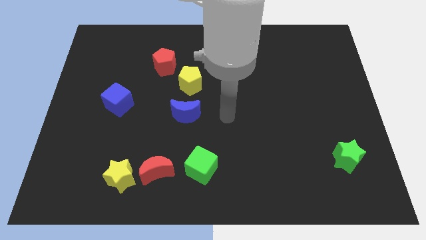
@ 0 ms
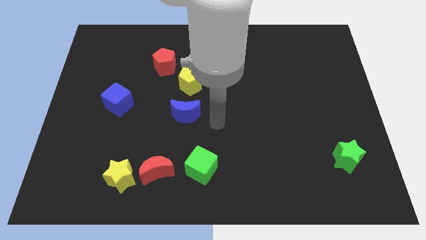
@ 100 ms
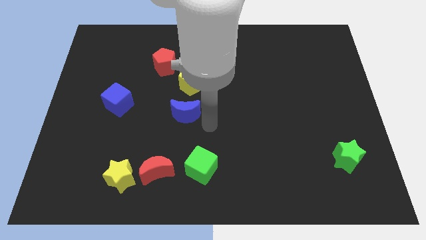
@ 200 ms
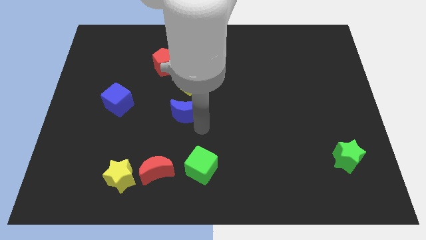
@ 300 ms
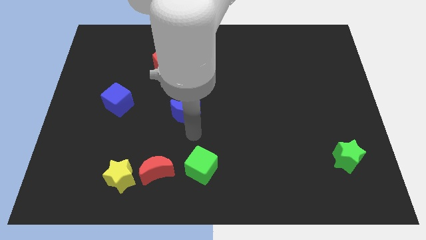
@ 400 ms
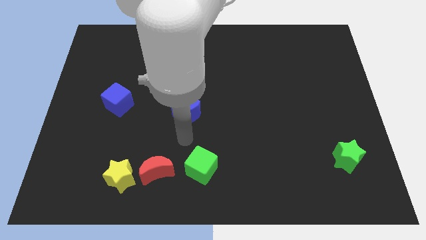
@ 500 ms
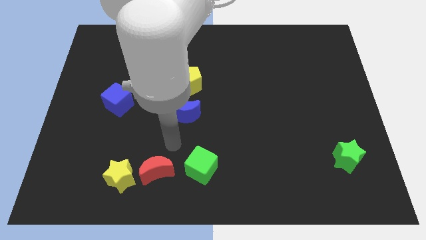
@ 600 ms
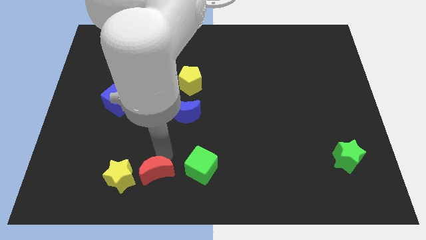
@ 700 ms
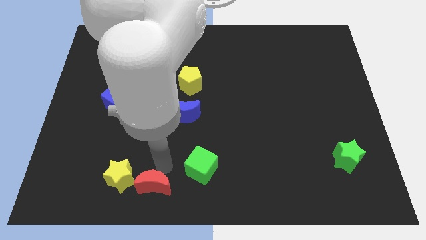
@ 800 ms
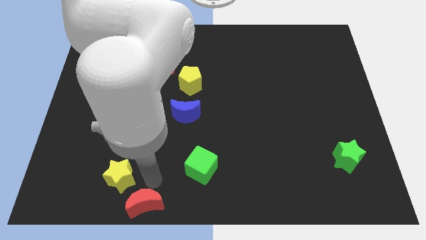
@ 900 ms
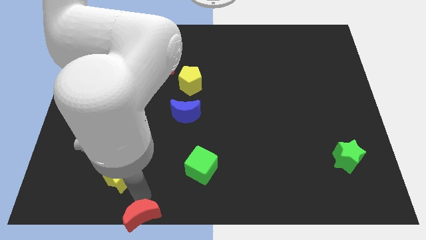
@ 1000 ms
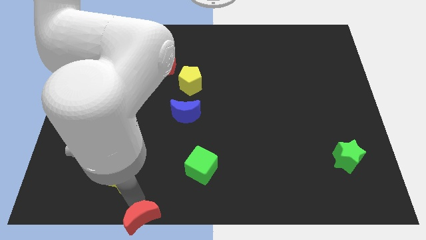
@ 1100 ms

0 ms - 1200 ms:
pull the yellow star apart from the red moon

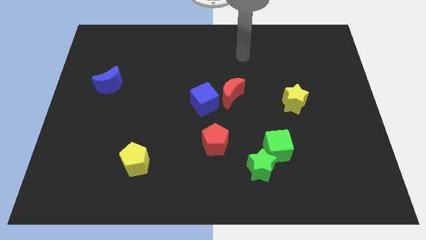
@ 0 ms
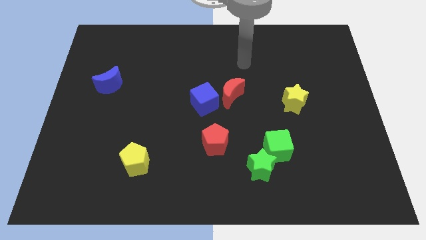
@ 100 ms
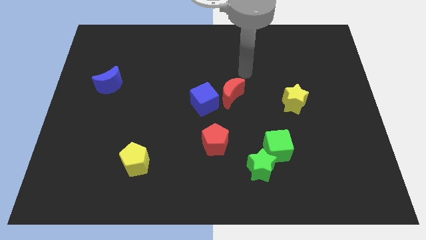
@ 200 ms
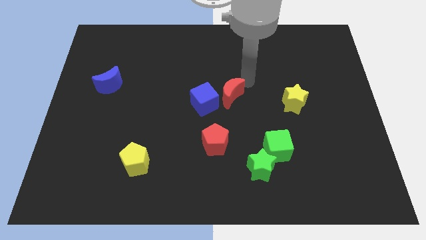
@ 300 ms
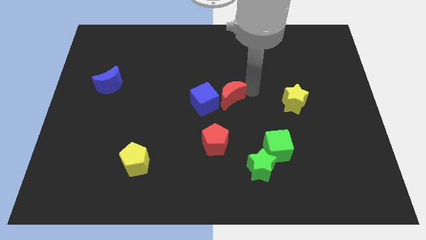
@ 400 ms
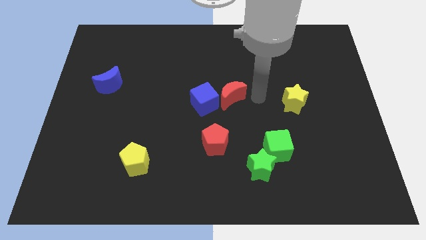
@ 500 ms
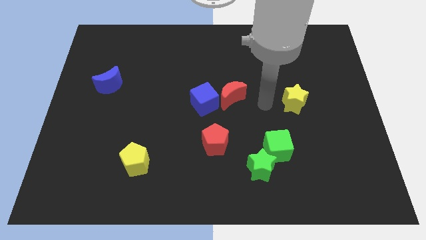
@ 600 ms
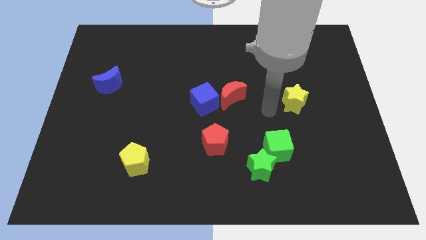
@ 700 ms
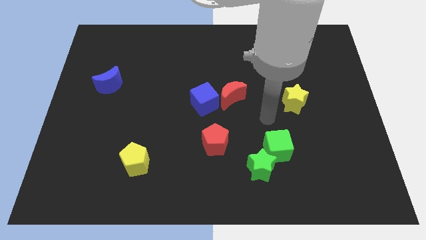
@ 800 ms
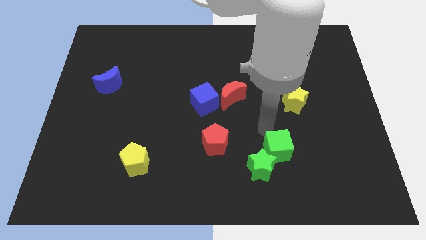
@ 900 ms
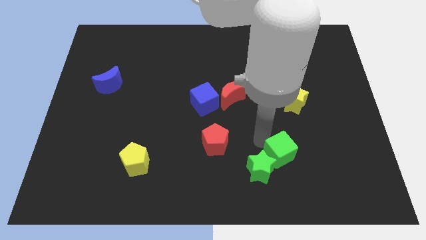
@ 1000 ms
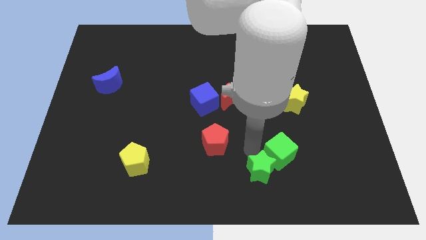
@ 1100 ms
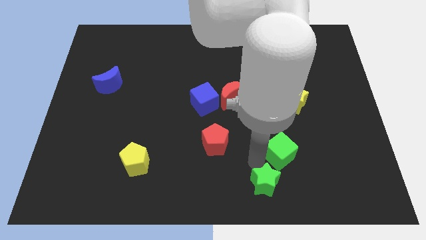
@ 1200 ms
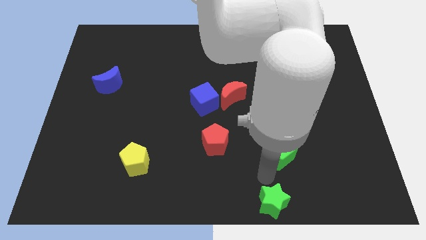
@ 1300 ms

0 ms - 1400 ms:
separate the green cube from the green star

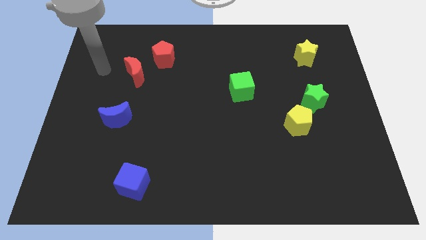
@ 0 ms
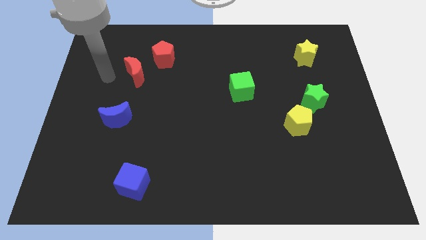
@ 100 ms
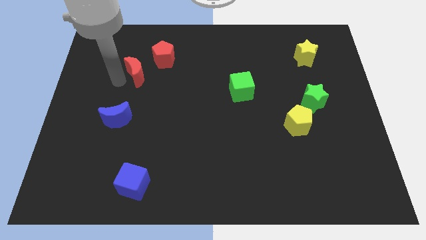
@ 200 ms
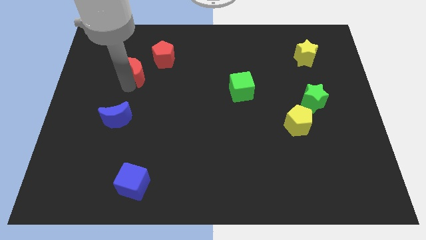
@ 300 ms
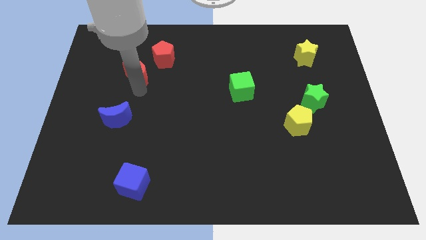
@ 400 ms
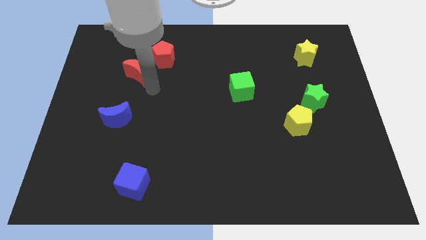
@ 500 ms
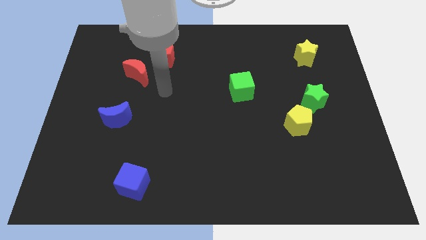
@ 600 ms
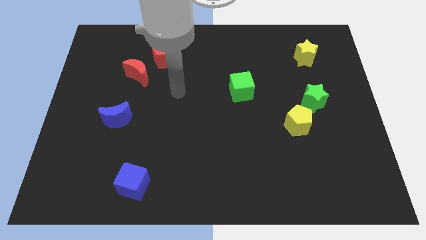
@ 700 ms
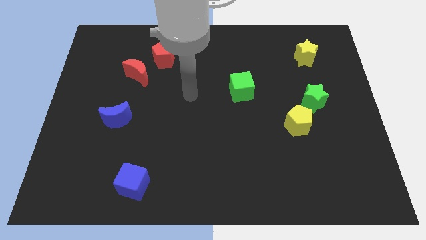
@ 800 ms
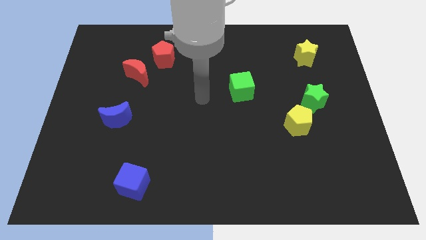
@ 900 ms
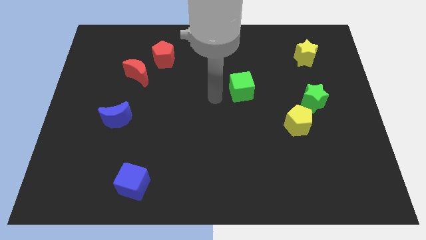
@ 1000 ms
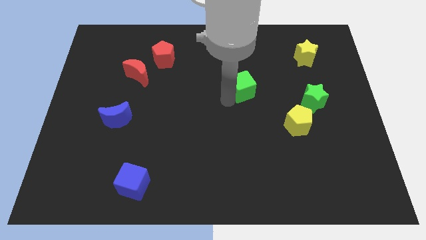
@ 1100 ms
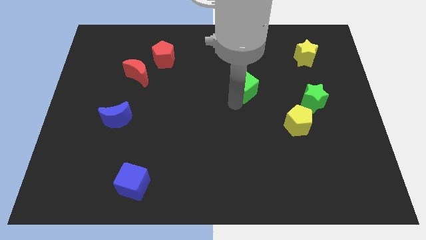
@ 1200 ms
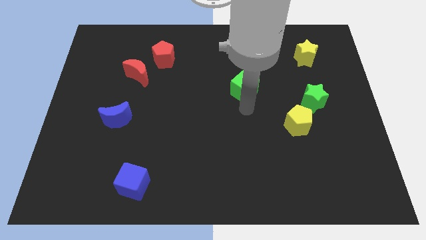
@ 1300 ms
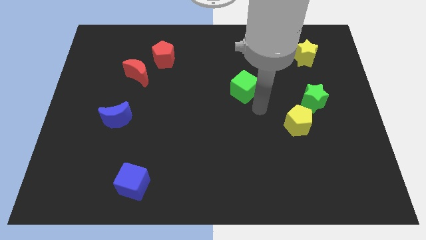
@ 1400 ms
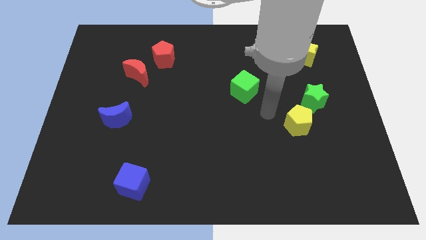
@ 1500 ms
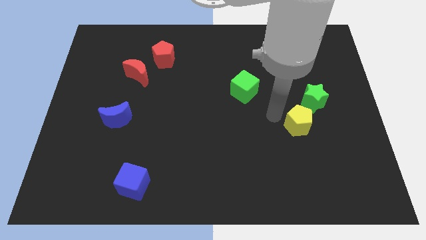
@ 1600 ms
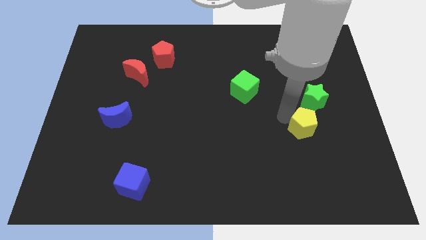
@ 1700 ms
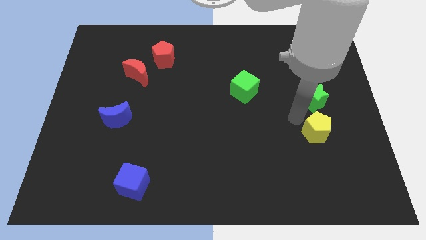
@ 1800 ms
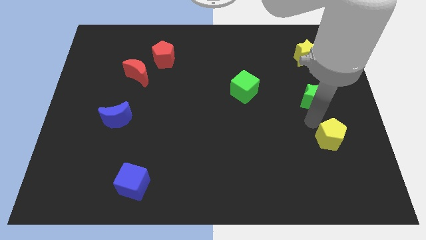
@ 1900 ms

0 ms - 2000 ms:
separate the green star from the yellow pentagon

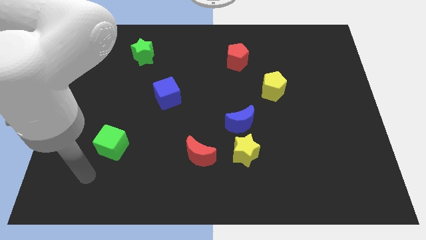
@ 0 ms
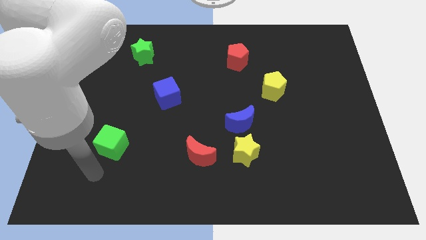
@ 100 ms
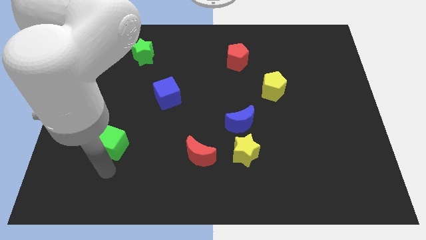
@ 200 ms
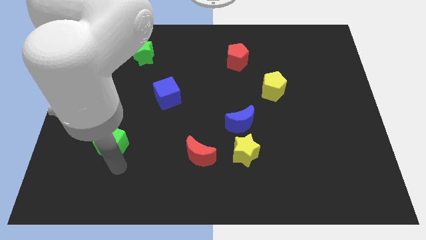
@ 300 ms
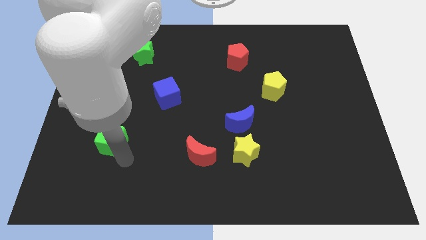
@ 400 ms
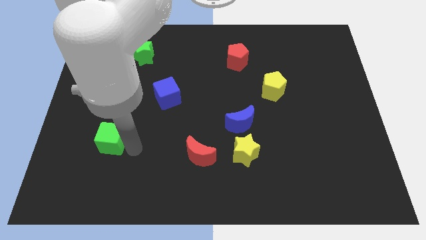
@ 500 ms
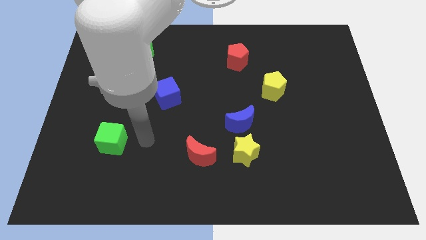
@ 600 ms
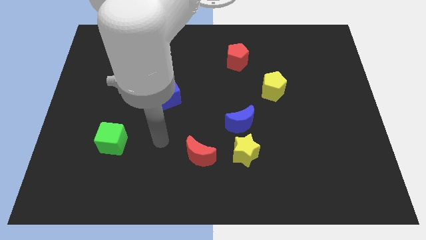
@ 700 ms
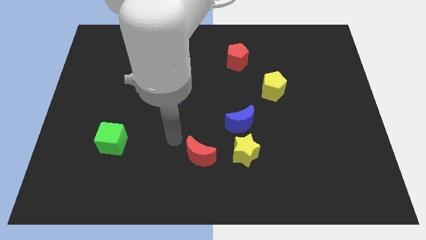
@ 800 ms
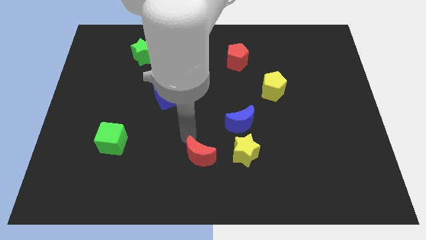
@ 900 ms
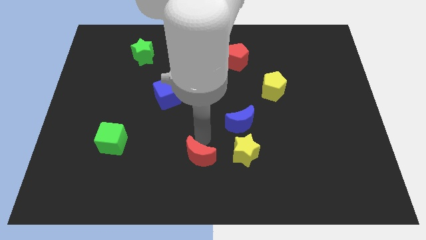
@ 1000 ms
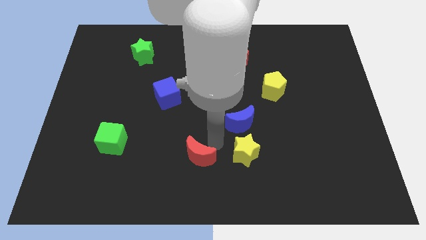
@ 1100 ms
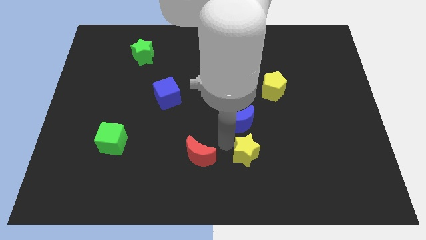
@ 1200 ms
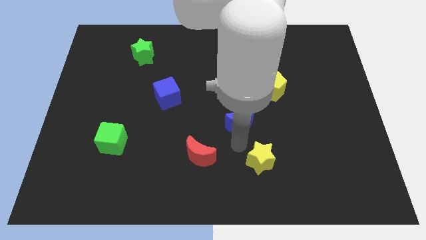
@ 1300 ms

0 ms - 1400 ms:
move the blue moon away from the yellow star

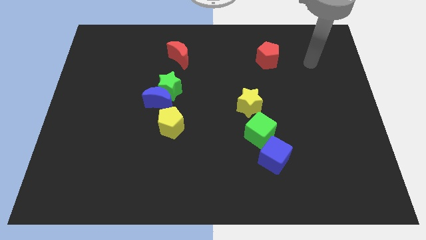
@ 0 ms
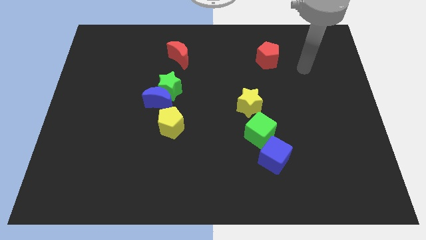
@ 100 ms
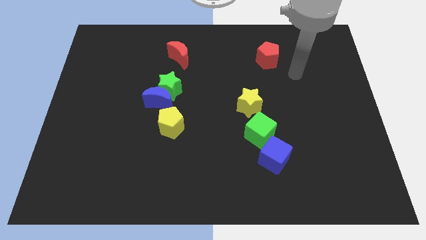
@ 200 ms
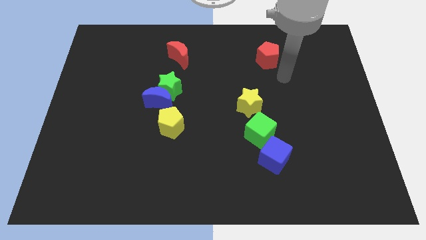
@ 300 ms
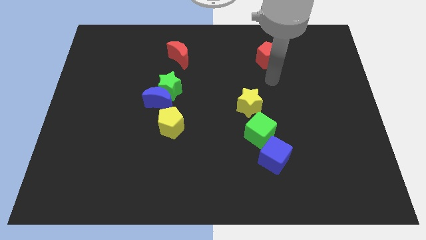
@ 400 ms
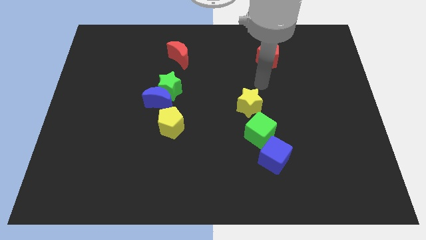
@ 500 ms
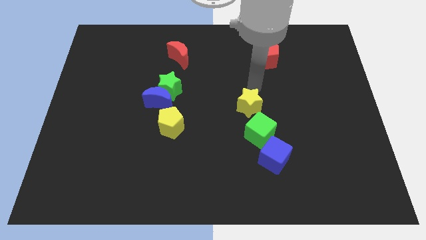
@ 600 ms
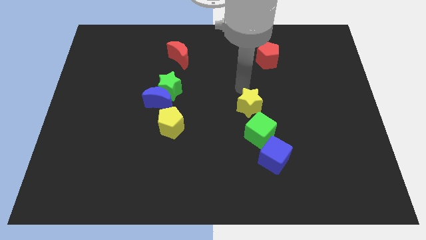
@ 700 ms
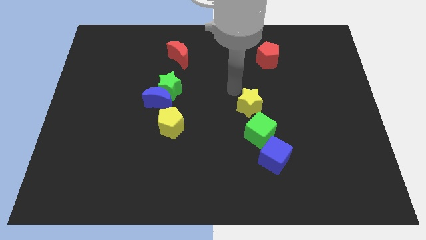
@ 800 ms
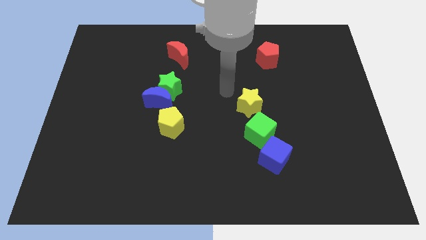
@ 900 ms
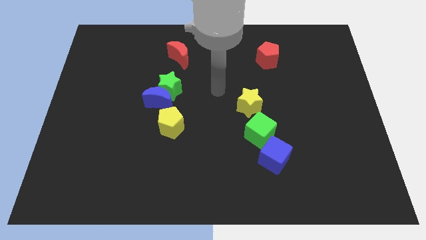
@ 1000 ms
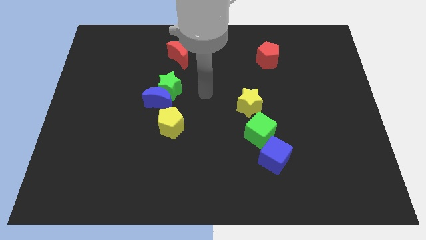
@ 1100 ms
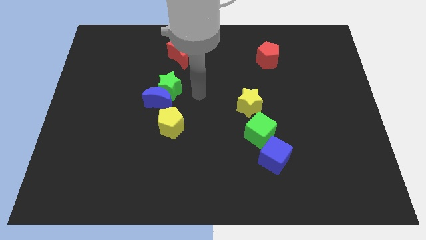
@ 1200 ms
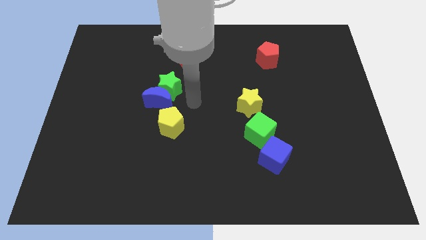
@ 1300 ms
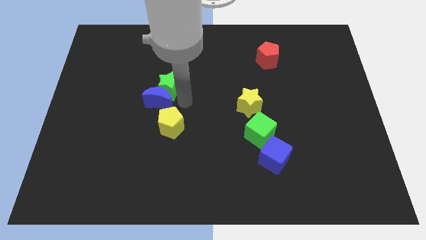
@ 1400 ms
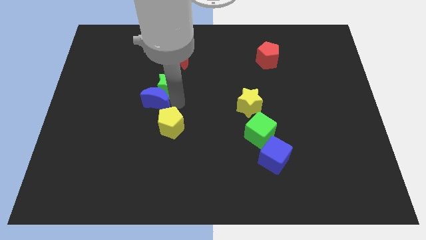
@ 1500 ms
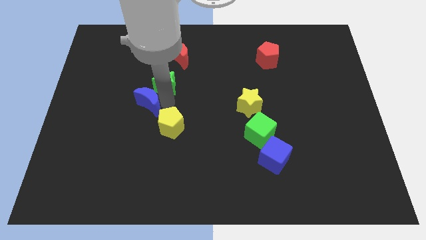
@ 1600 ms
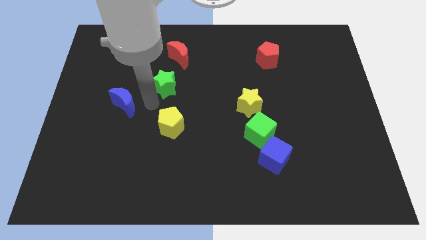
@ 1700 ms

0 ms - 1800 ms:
separate the green star from the blue moon

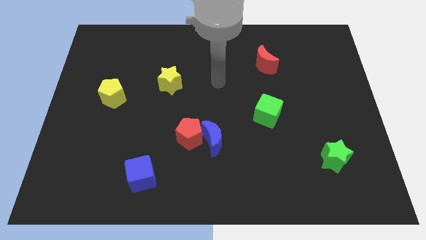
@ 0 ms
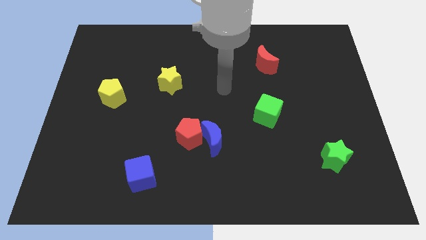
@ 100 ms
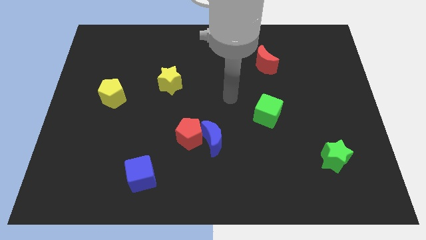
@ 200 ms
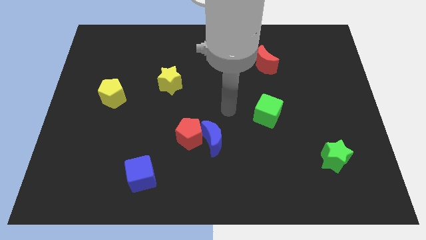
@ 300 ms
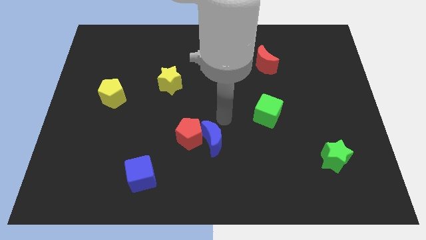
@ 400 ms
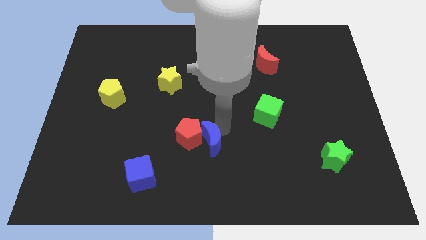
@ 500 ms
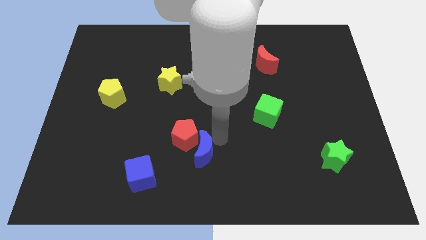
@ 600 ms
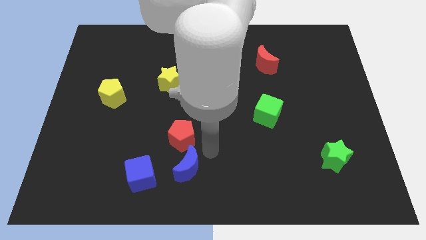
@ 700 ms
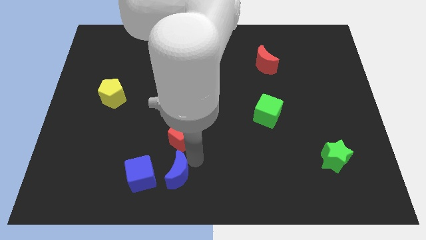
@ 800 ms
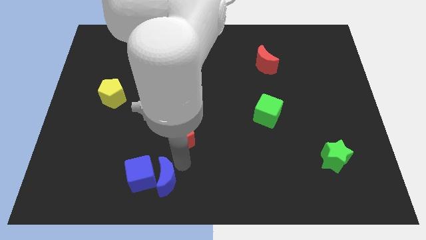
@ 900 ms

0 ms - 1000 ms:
separate the red pentagon from the blue moon

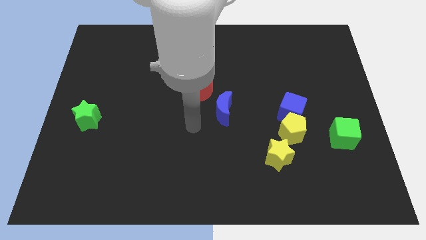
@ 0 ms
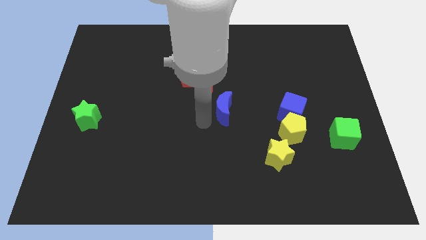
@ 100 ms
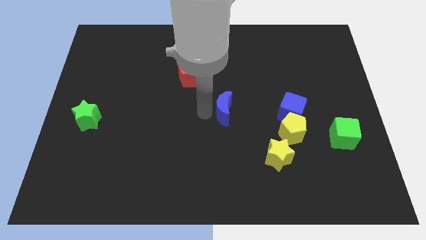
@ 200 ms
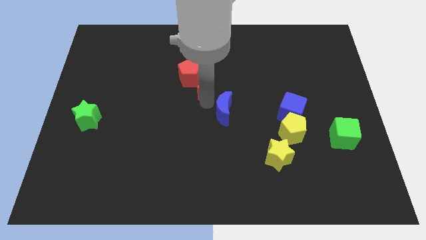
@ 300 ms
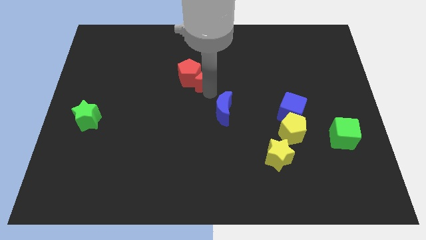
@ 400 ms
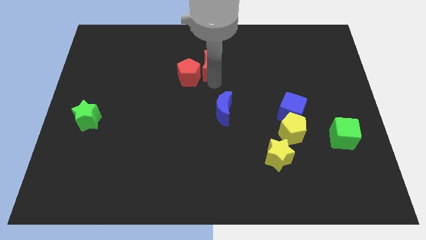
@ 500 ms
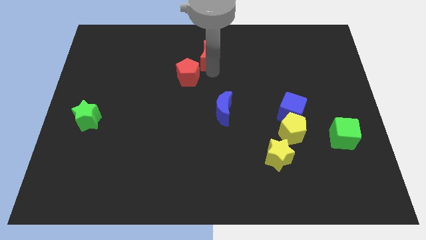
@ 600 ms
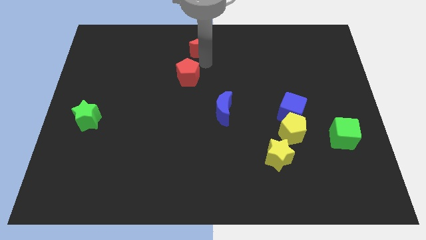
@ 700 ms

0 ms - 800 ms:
pull the red pentagon apart from the red moon
